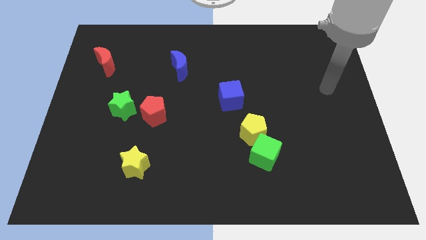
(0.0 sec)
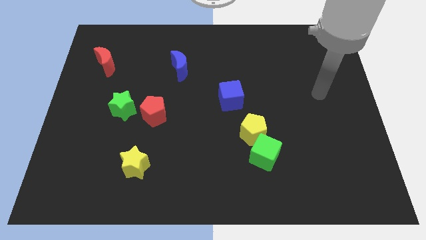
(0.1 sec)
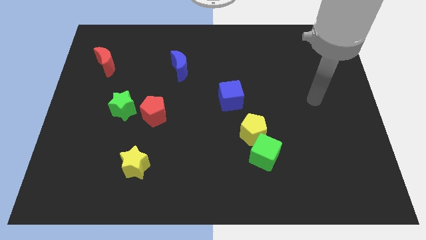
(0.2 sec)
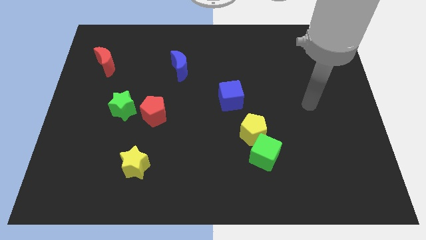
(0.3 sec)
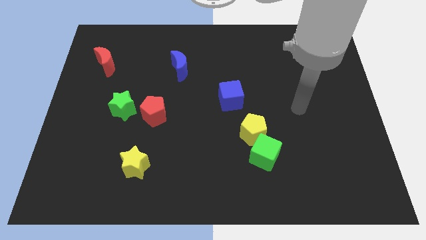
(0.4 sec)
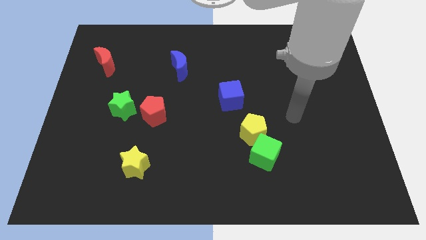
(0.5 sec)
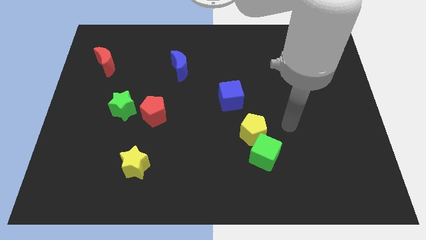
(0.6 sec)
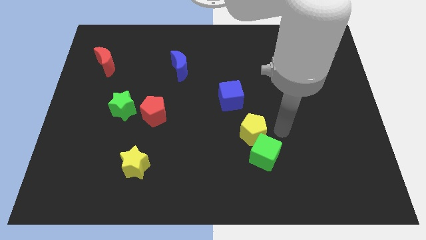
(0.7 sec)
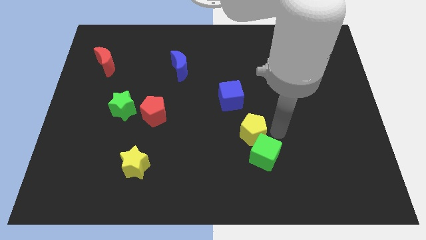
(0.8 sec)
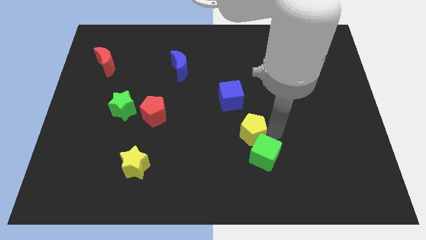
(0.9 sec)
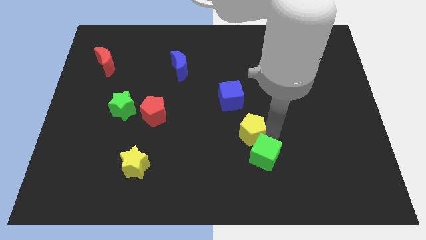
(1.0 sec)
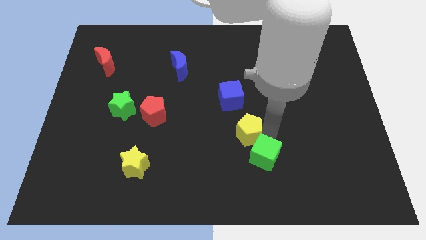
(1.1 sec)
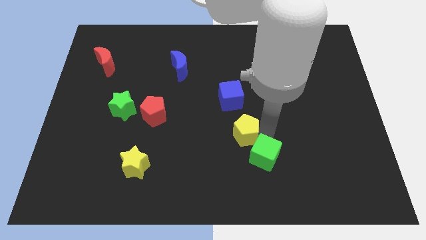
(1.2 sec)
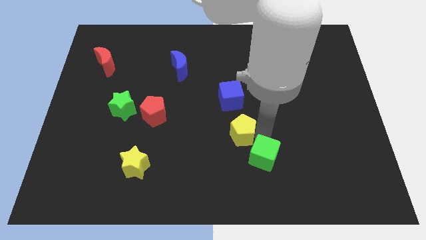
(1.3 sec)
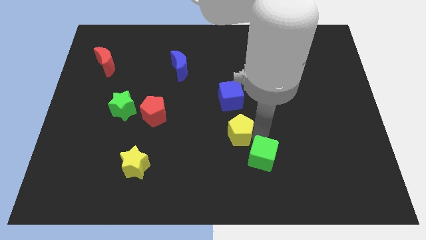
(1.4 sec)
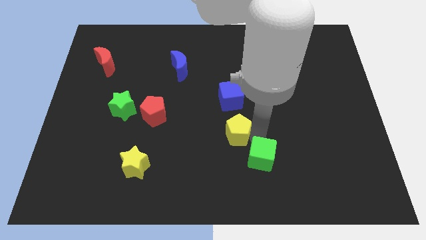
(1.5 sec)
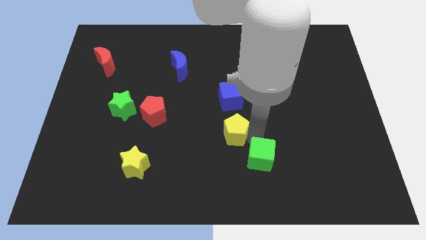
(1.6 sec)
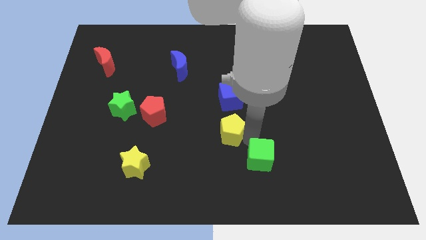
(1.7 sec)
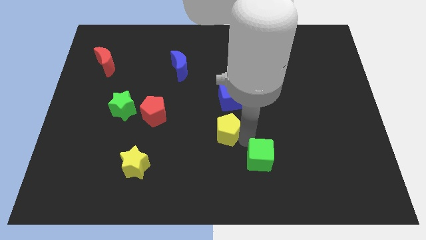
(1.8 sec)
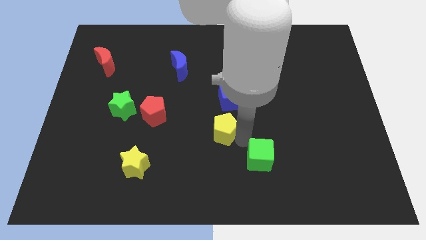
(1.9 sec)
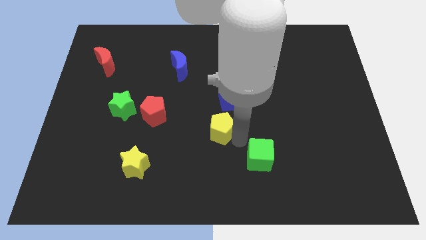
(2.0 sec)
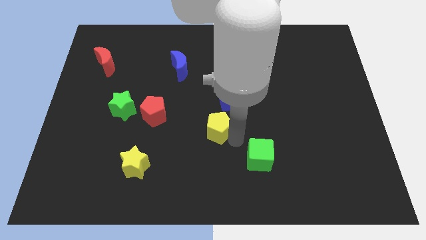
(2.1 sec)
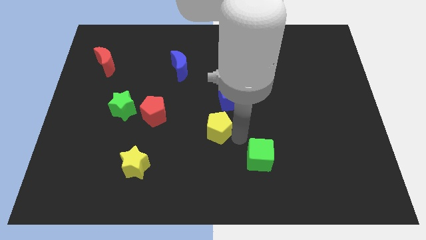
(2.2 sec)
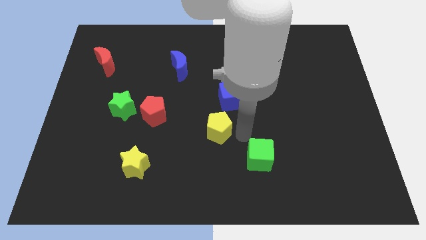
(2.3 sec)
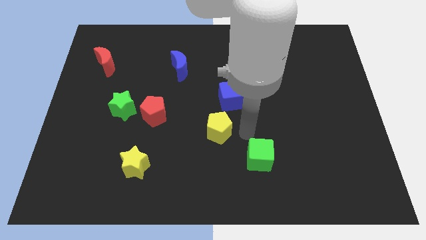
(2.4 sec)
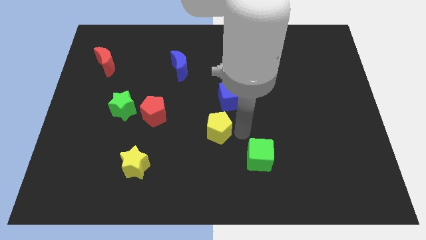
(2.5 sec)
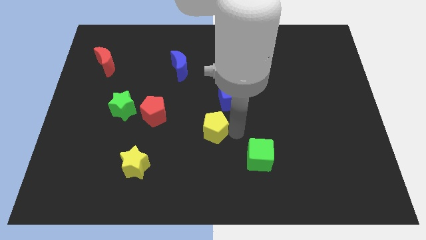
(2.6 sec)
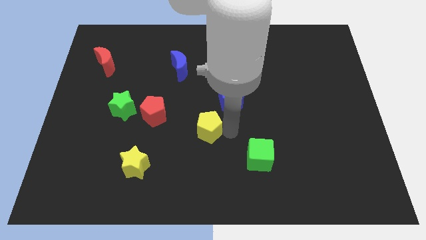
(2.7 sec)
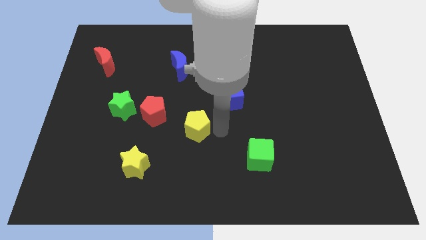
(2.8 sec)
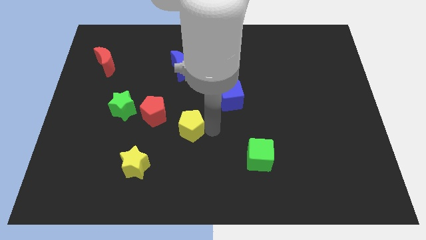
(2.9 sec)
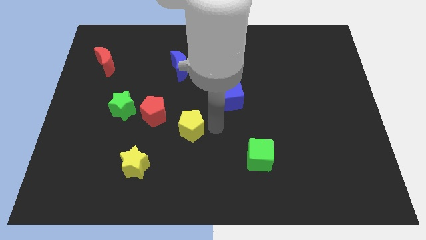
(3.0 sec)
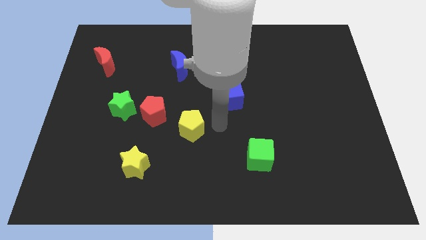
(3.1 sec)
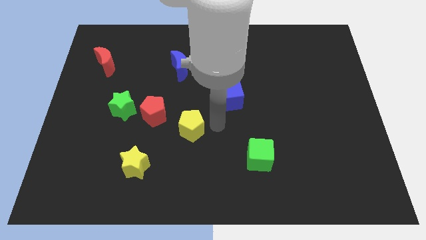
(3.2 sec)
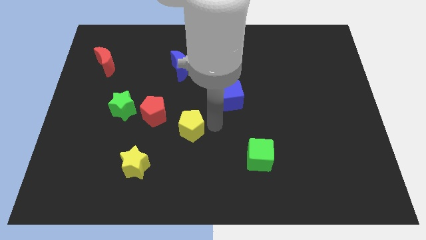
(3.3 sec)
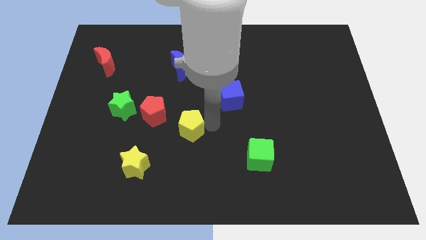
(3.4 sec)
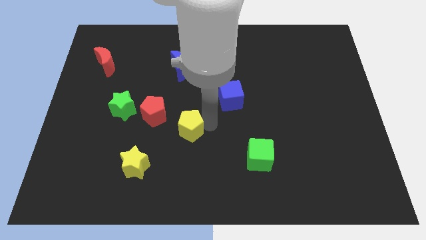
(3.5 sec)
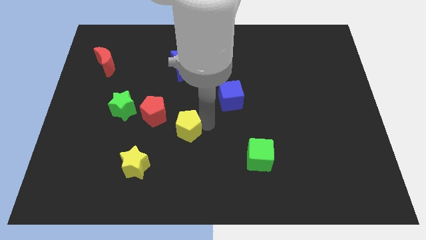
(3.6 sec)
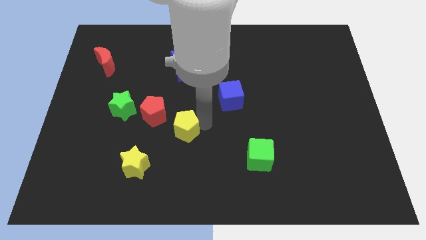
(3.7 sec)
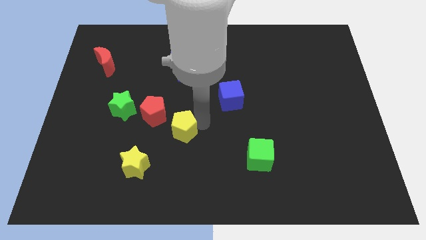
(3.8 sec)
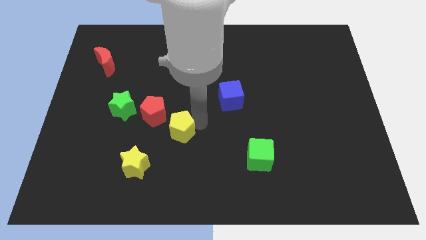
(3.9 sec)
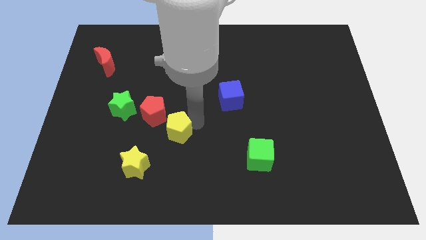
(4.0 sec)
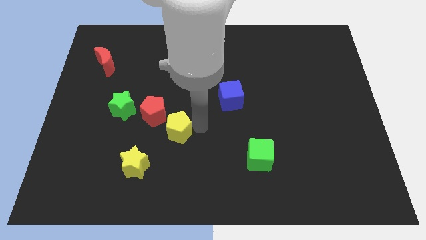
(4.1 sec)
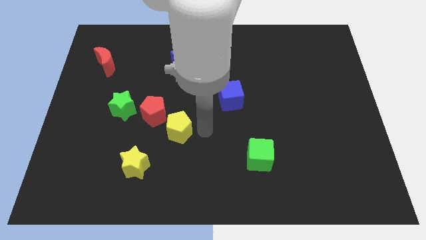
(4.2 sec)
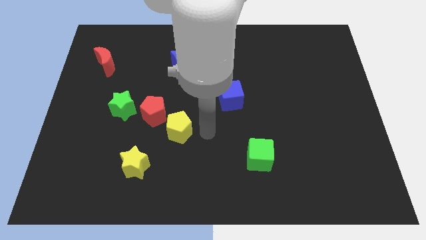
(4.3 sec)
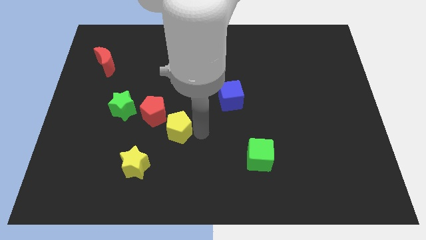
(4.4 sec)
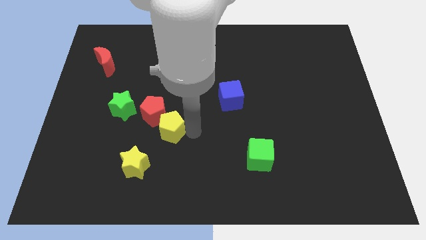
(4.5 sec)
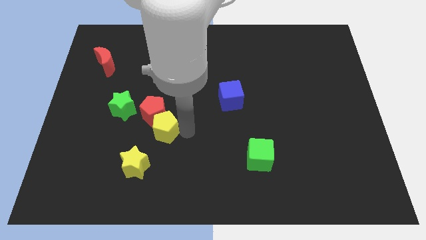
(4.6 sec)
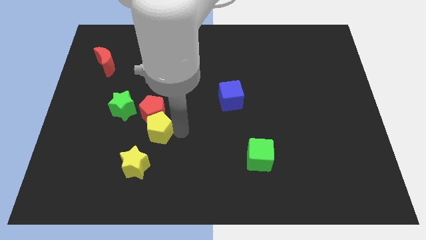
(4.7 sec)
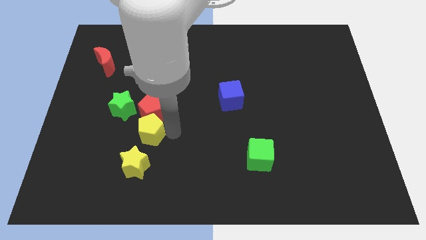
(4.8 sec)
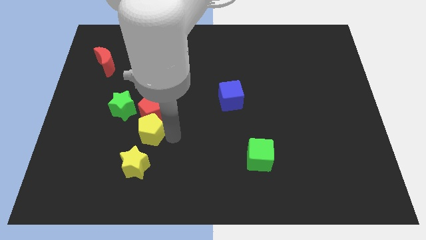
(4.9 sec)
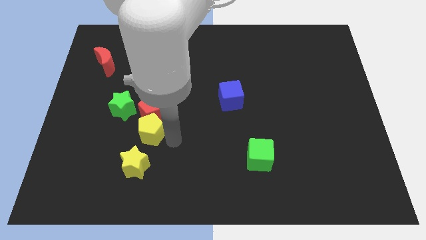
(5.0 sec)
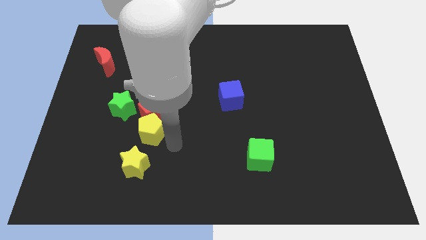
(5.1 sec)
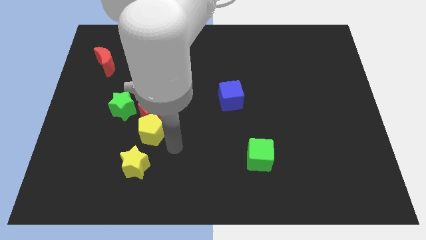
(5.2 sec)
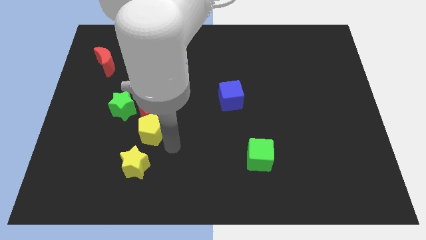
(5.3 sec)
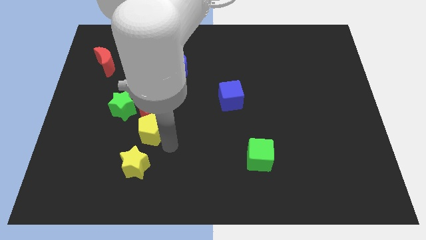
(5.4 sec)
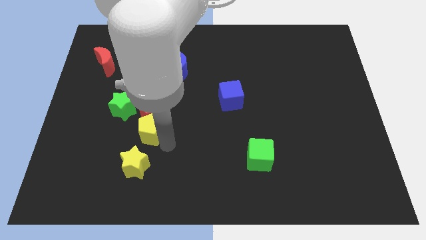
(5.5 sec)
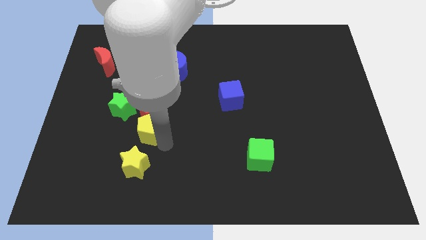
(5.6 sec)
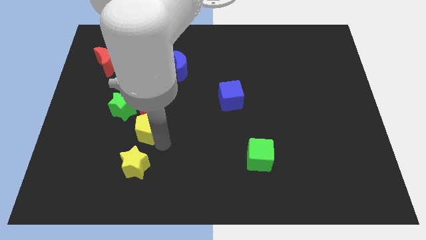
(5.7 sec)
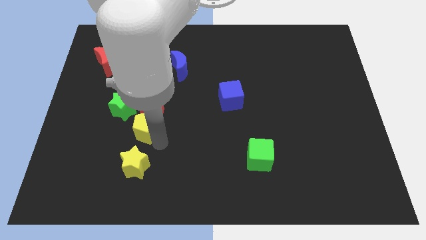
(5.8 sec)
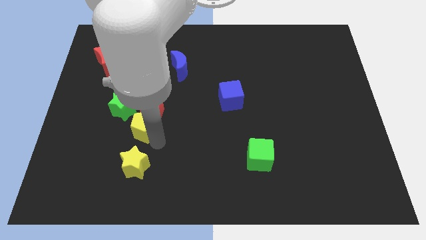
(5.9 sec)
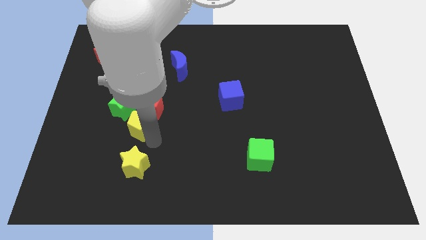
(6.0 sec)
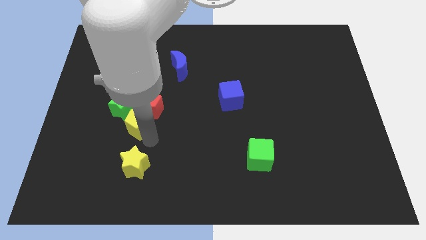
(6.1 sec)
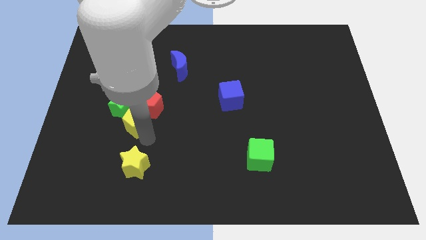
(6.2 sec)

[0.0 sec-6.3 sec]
move the yellow pentagon to the green star

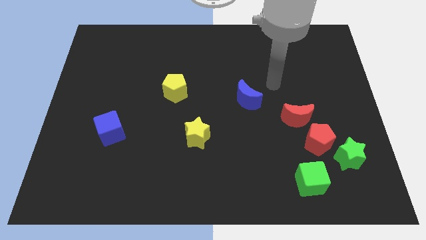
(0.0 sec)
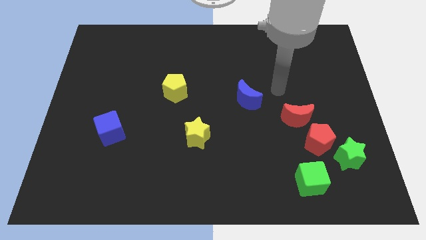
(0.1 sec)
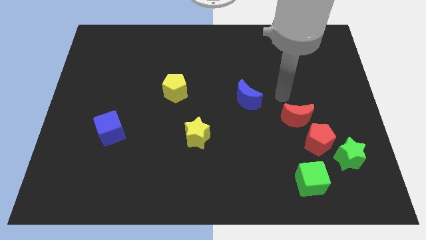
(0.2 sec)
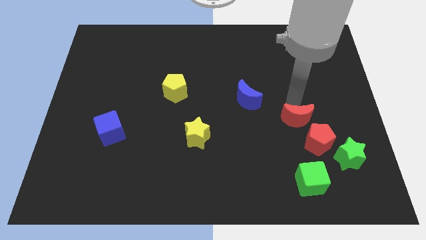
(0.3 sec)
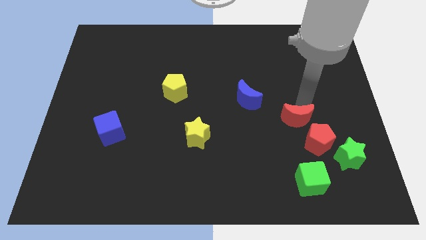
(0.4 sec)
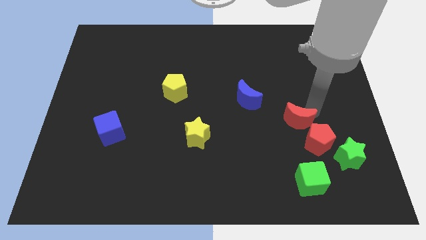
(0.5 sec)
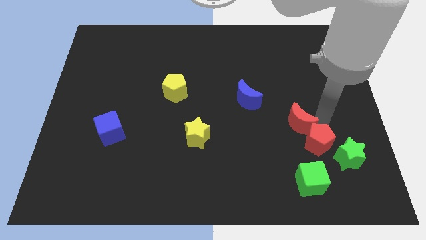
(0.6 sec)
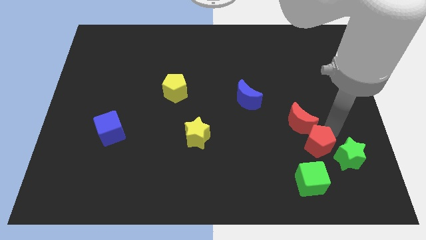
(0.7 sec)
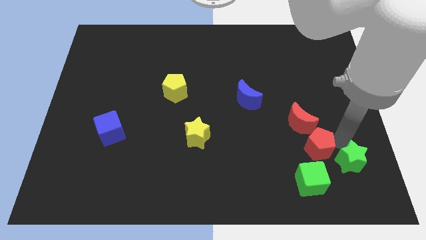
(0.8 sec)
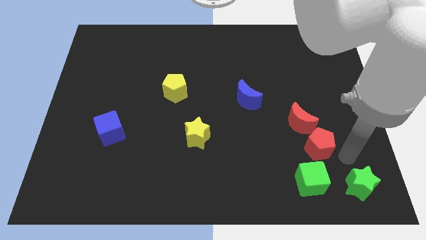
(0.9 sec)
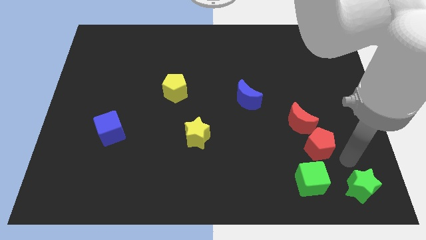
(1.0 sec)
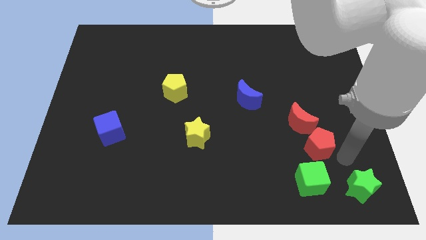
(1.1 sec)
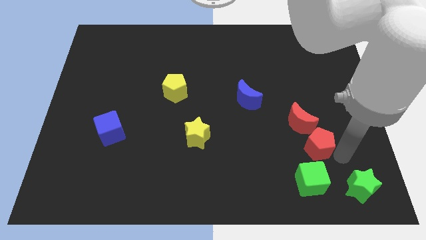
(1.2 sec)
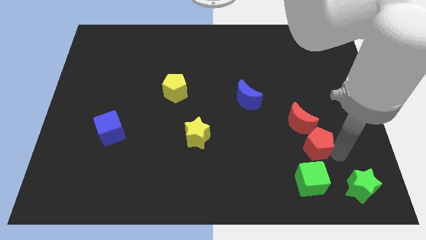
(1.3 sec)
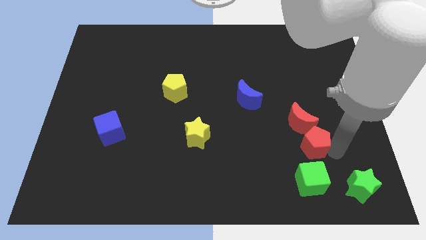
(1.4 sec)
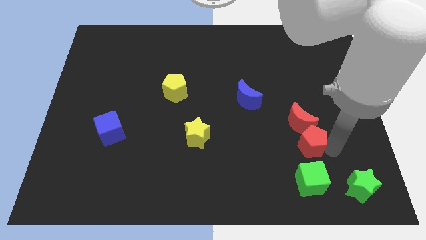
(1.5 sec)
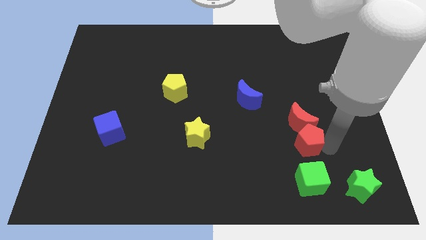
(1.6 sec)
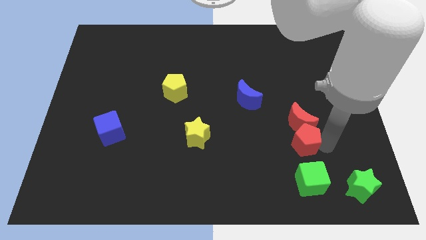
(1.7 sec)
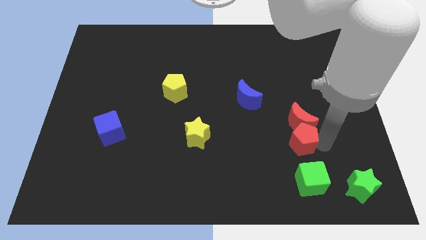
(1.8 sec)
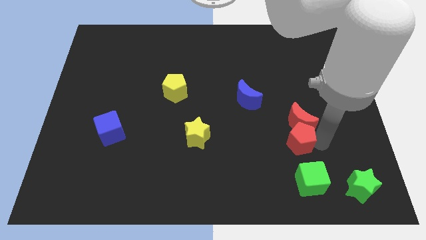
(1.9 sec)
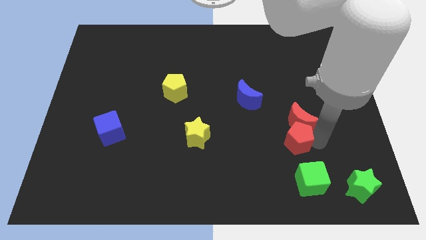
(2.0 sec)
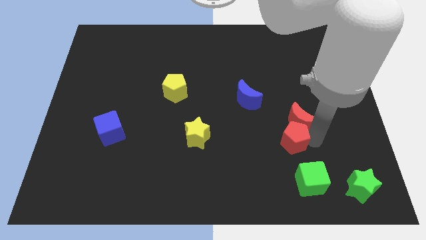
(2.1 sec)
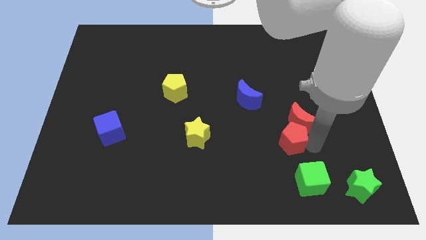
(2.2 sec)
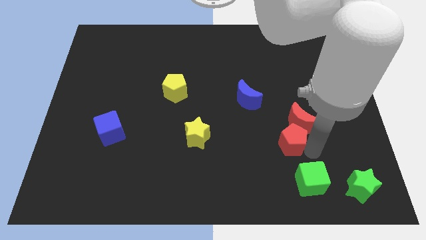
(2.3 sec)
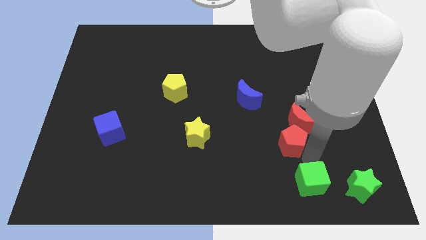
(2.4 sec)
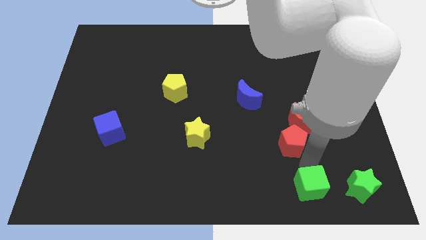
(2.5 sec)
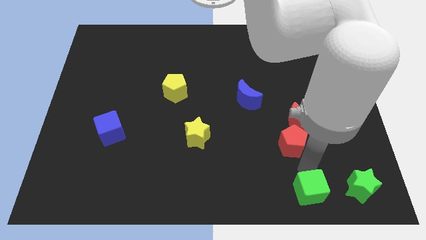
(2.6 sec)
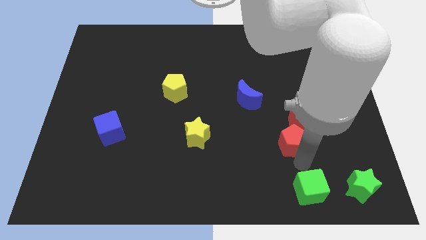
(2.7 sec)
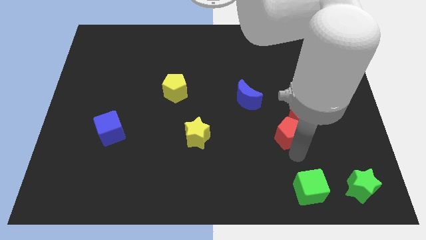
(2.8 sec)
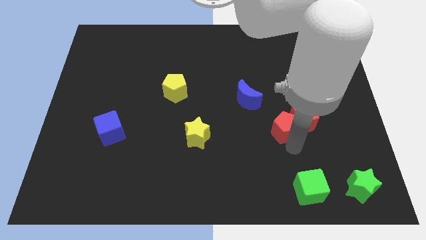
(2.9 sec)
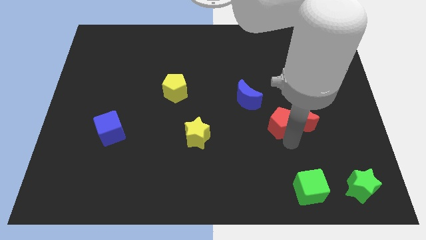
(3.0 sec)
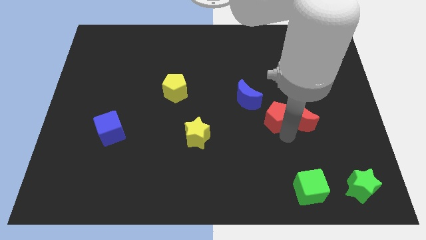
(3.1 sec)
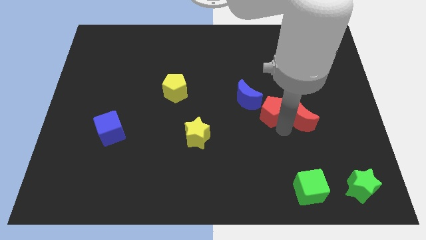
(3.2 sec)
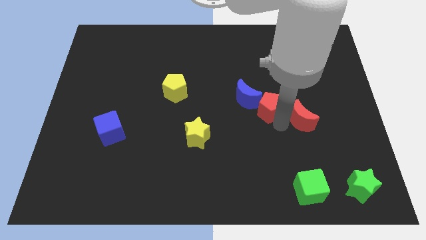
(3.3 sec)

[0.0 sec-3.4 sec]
push the red pentagon to the blue moon
